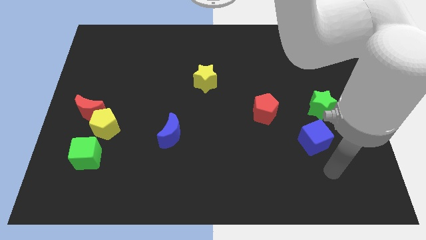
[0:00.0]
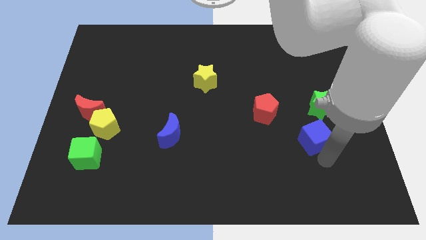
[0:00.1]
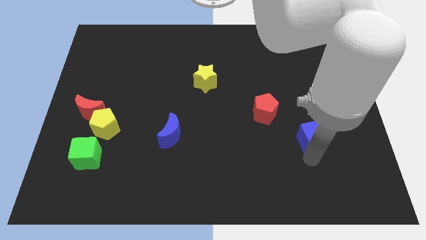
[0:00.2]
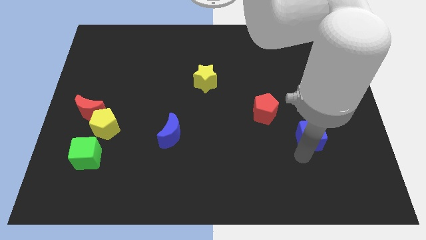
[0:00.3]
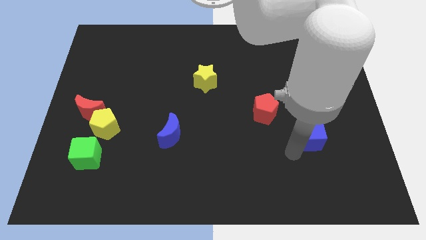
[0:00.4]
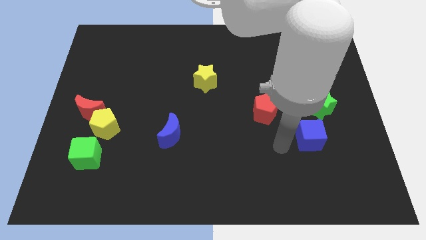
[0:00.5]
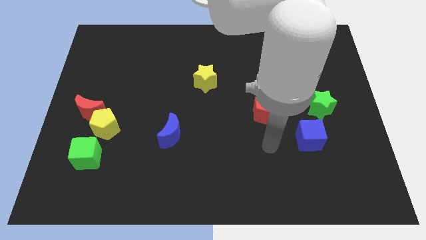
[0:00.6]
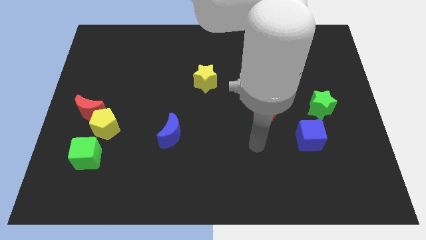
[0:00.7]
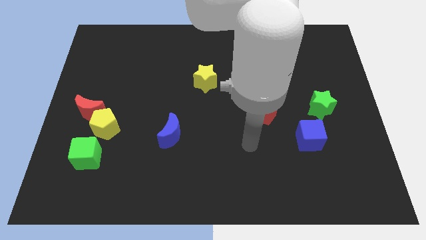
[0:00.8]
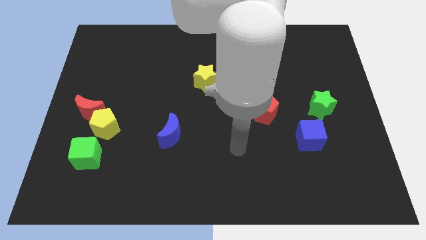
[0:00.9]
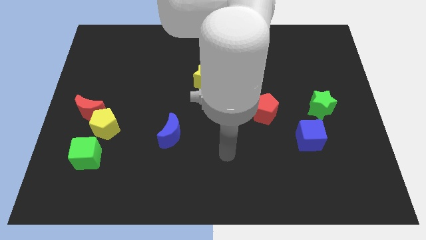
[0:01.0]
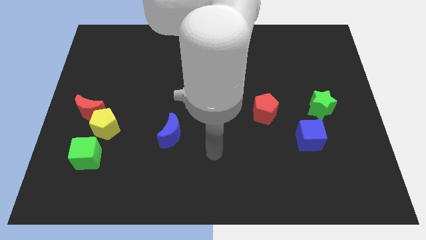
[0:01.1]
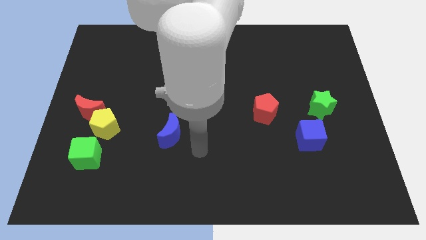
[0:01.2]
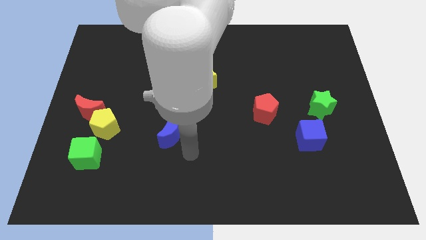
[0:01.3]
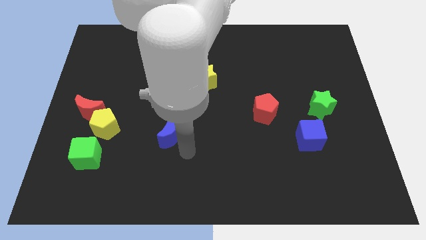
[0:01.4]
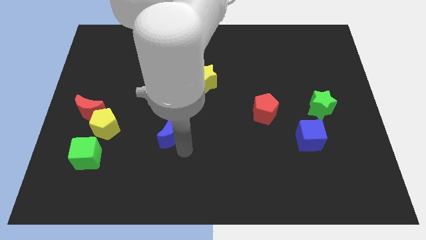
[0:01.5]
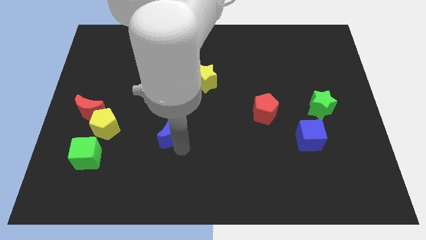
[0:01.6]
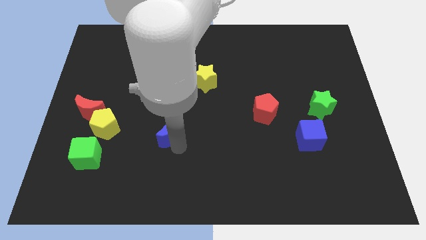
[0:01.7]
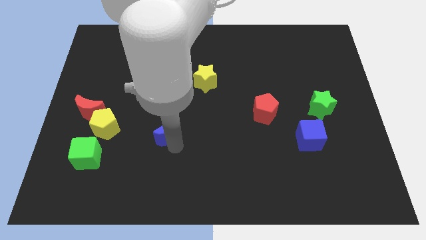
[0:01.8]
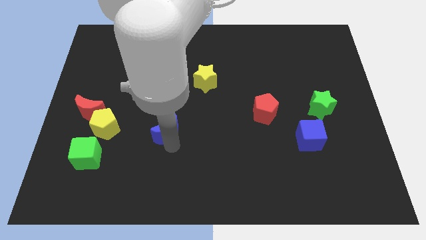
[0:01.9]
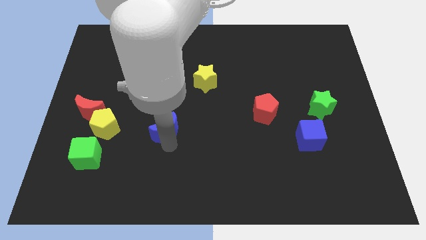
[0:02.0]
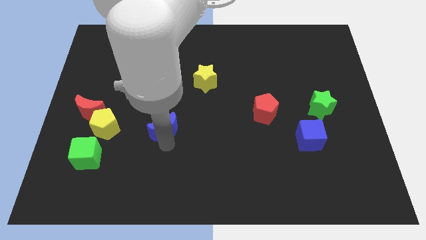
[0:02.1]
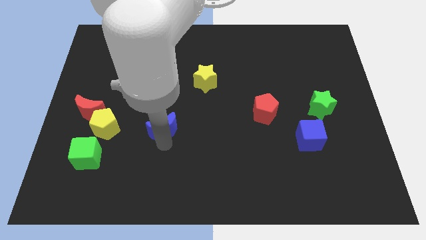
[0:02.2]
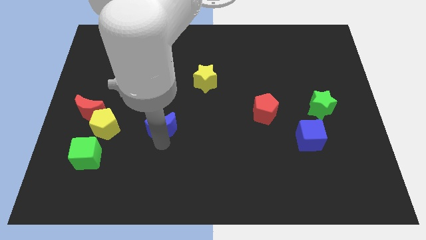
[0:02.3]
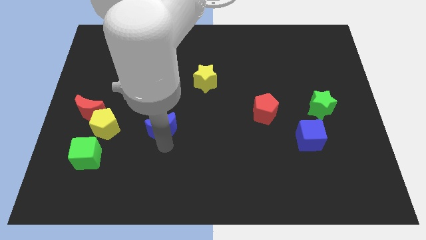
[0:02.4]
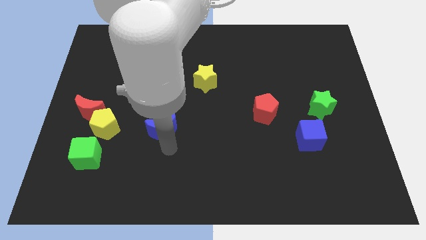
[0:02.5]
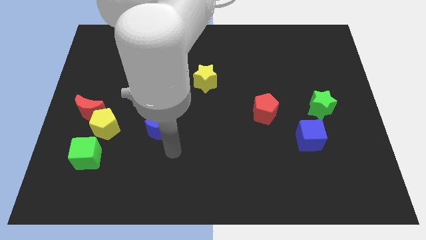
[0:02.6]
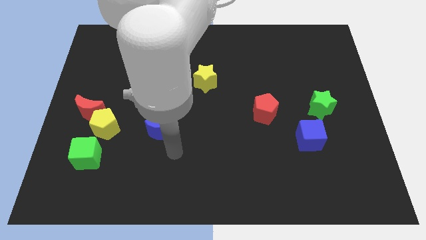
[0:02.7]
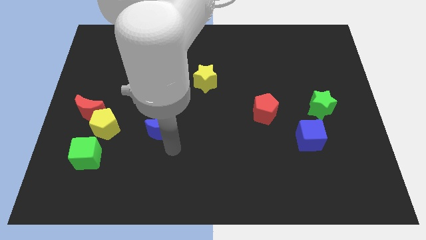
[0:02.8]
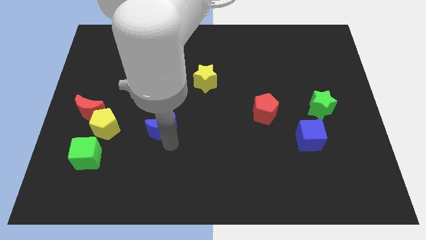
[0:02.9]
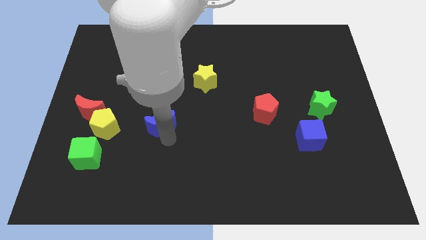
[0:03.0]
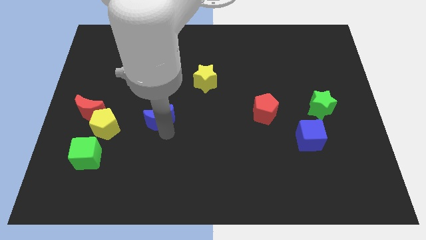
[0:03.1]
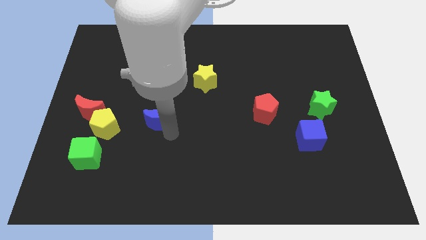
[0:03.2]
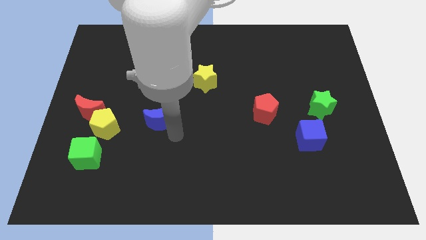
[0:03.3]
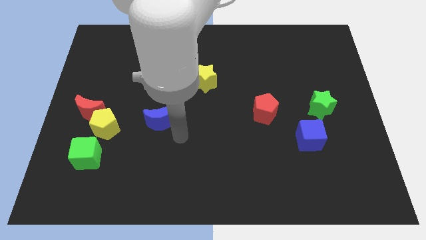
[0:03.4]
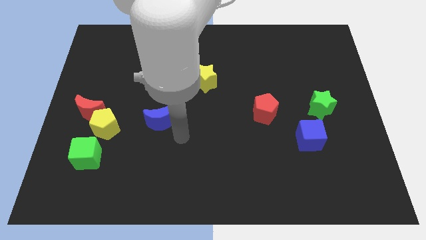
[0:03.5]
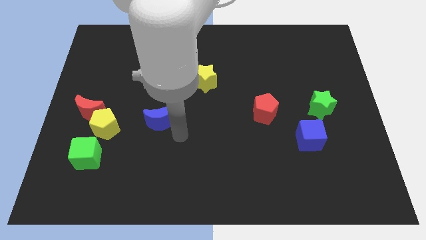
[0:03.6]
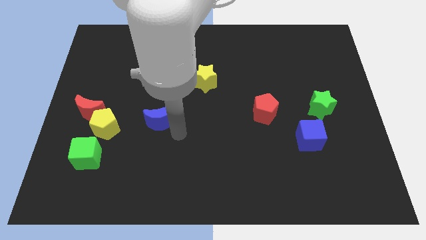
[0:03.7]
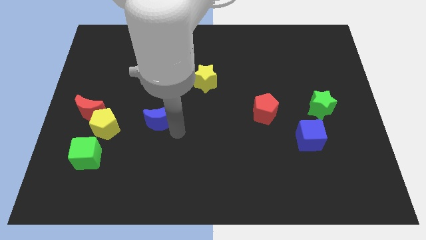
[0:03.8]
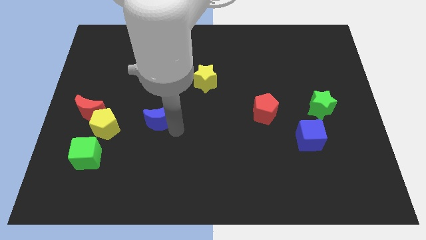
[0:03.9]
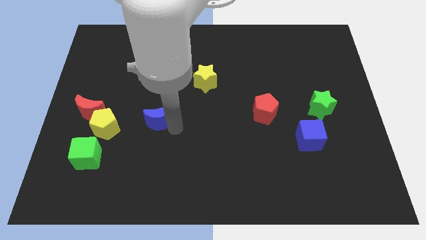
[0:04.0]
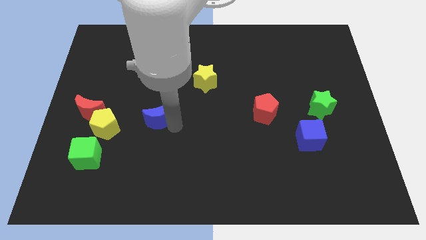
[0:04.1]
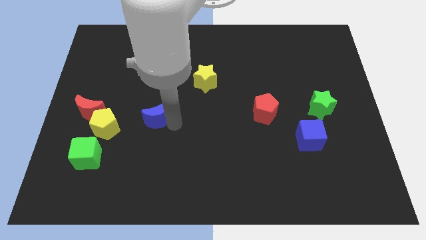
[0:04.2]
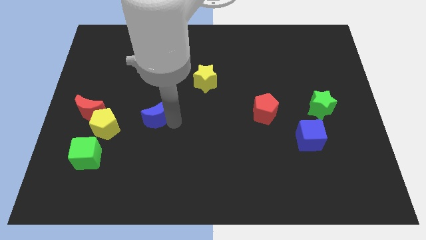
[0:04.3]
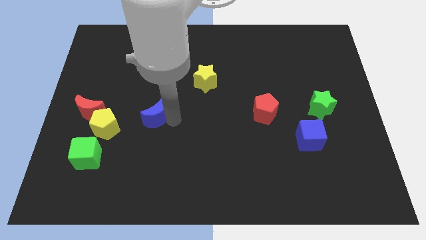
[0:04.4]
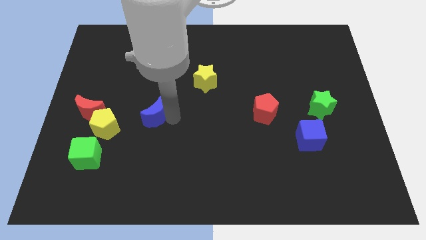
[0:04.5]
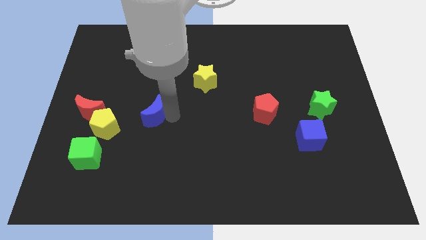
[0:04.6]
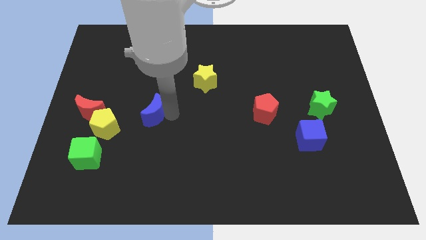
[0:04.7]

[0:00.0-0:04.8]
push the blue moon diagonally upwards and to the left slightly

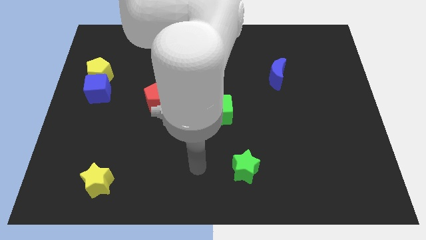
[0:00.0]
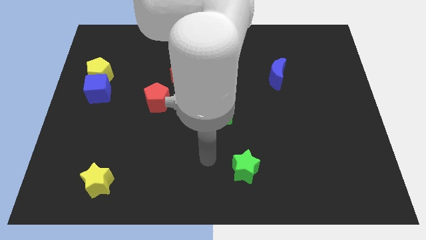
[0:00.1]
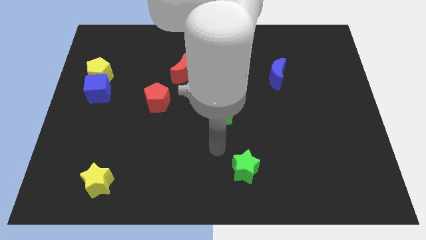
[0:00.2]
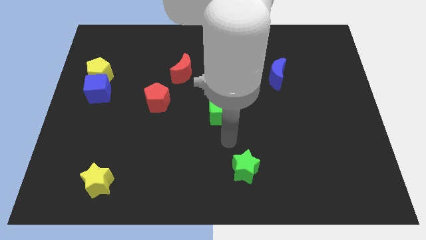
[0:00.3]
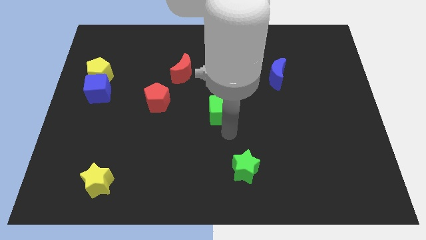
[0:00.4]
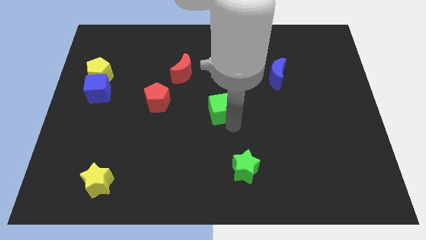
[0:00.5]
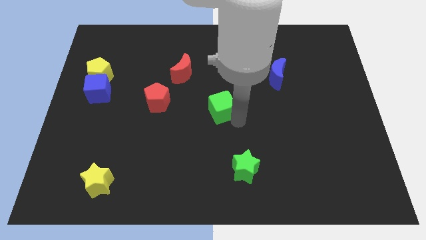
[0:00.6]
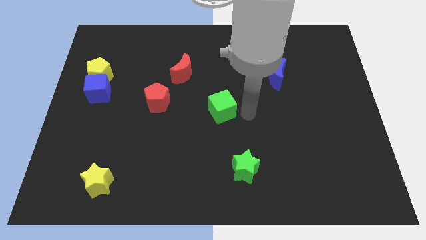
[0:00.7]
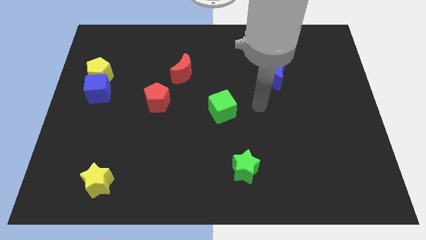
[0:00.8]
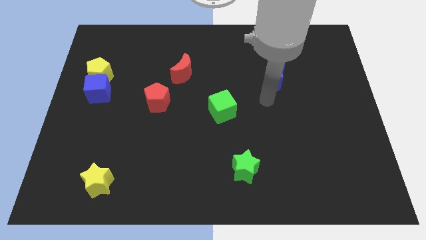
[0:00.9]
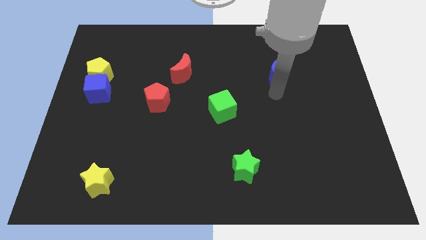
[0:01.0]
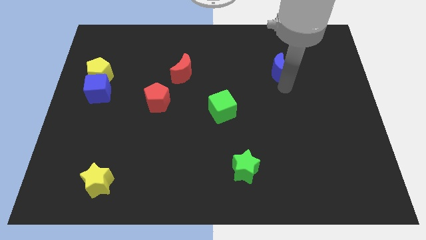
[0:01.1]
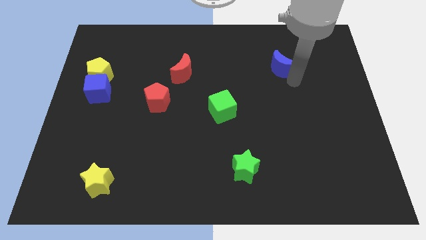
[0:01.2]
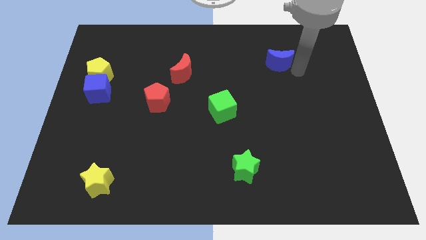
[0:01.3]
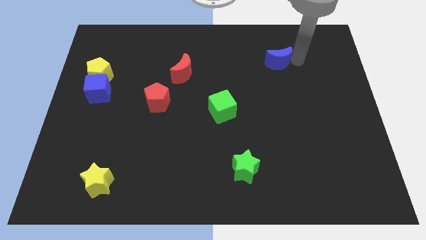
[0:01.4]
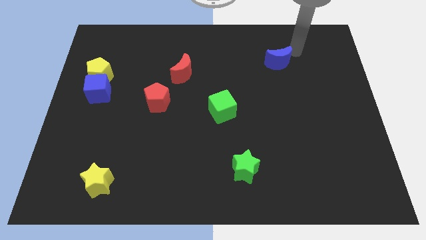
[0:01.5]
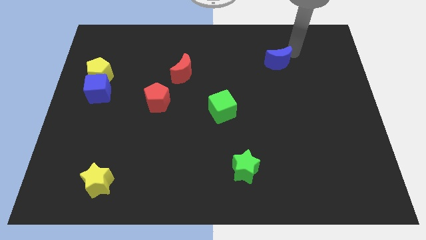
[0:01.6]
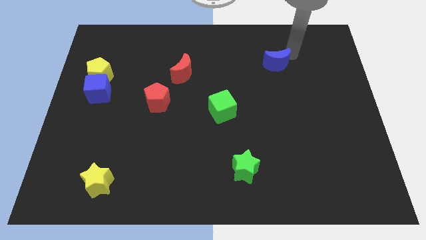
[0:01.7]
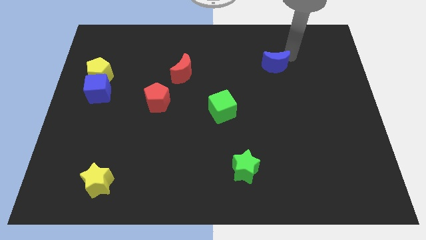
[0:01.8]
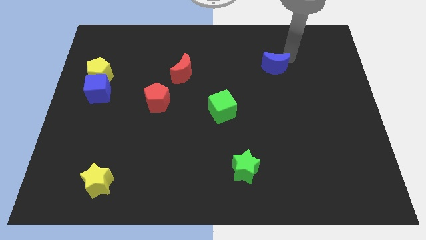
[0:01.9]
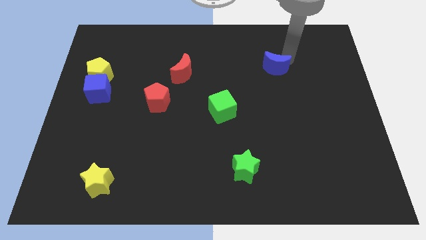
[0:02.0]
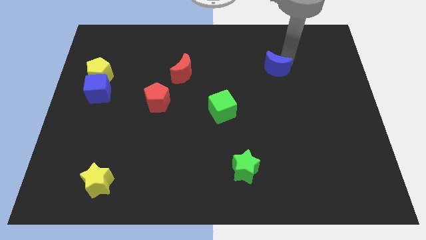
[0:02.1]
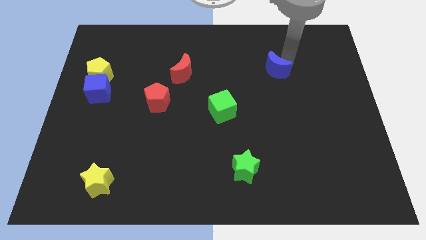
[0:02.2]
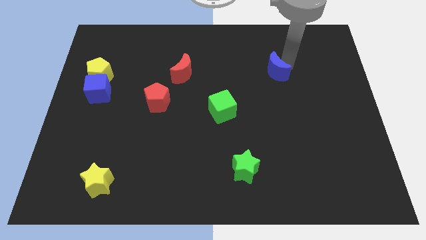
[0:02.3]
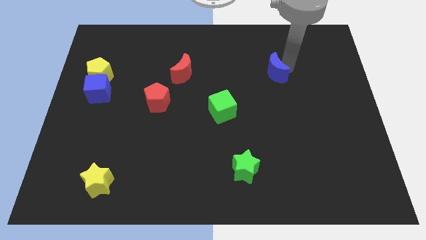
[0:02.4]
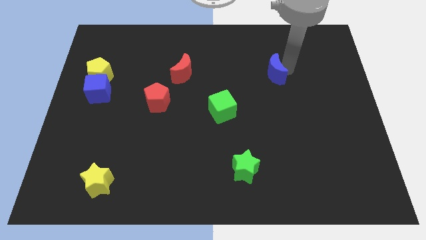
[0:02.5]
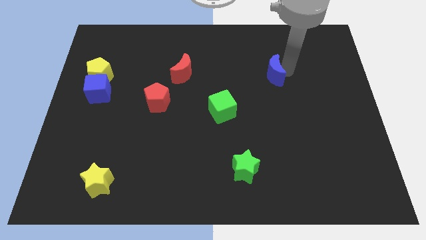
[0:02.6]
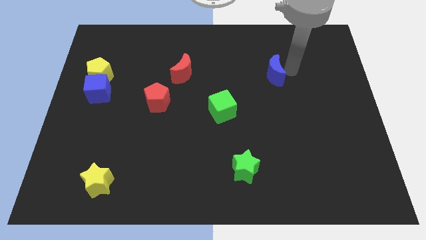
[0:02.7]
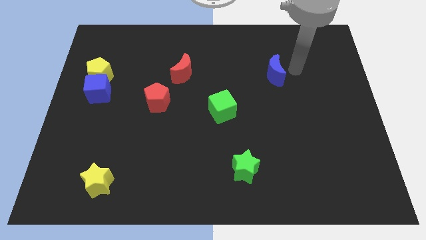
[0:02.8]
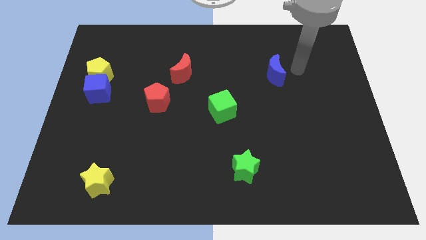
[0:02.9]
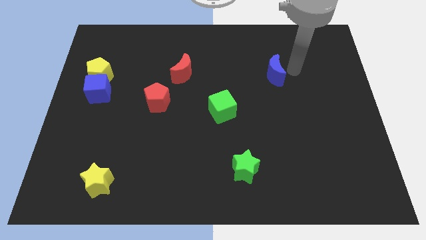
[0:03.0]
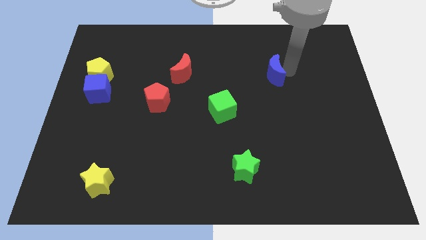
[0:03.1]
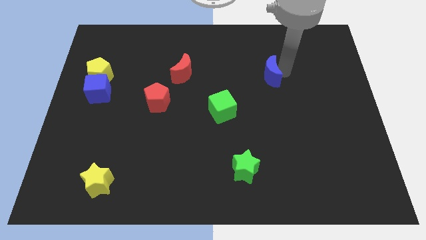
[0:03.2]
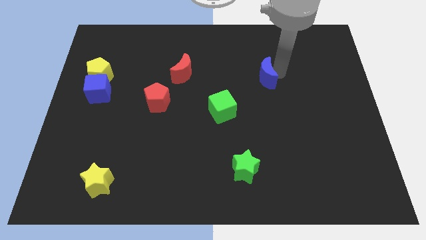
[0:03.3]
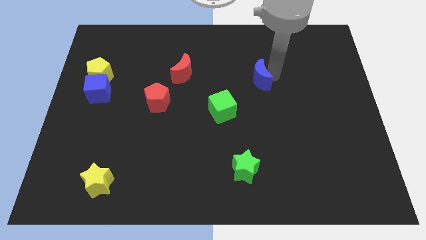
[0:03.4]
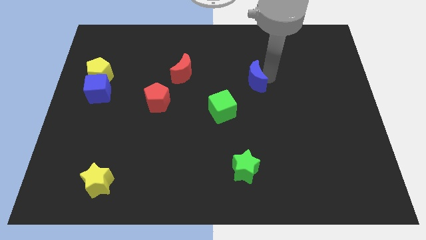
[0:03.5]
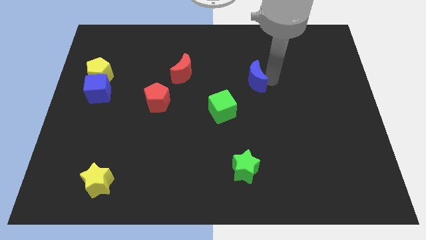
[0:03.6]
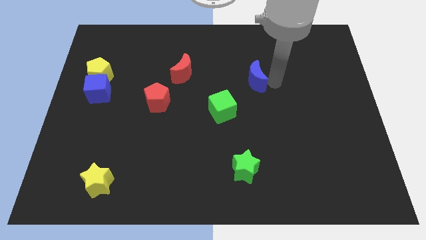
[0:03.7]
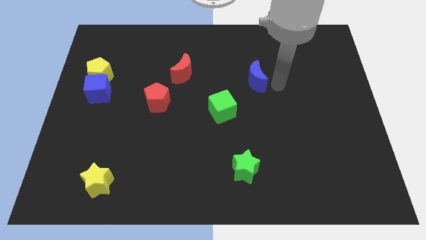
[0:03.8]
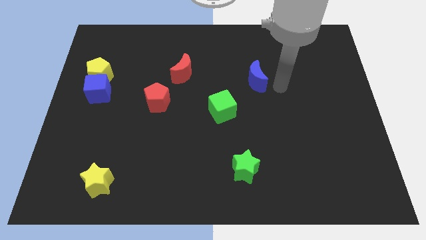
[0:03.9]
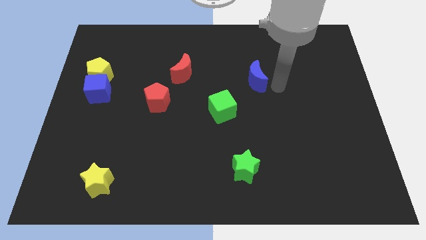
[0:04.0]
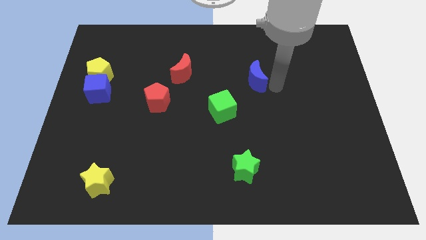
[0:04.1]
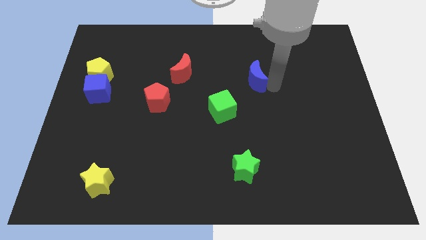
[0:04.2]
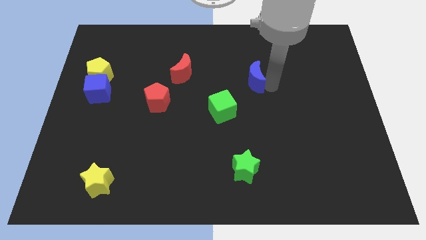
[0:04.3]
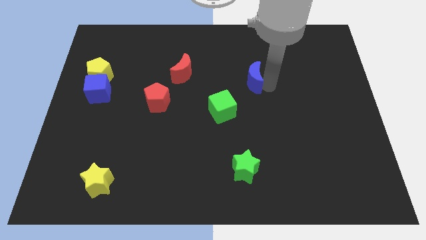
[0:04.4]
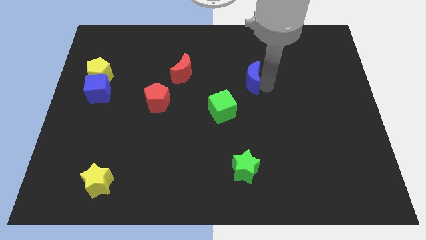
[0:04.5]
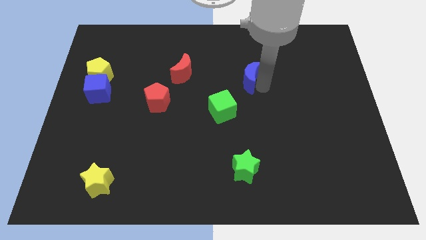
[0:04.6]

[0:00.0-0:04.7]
push the blue moon a bit left
